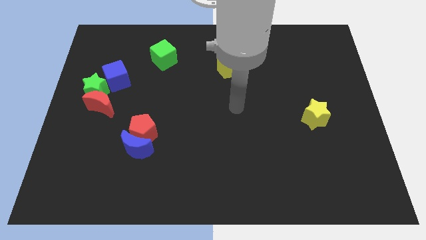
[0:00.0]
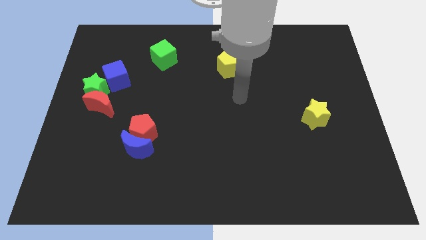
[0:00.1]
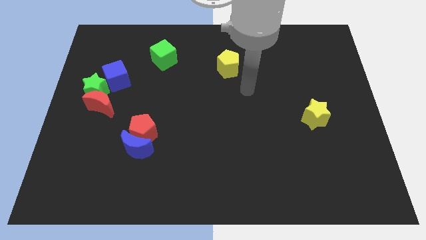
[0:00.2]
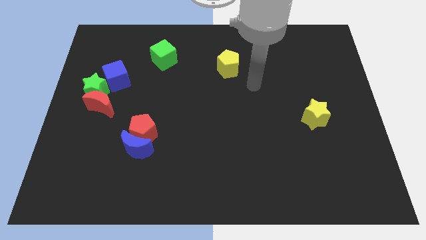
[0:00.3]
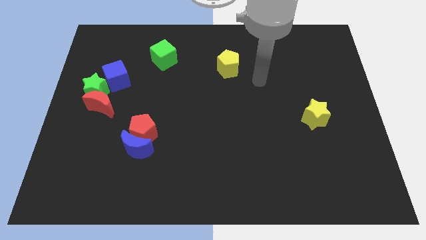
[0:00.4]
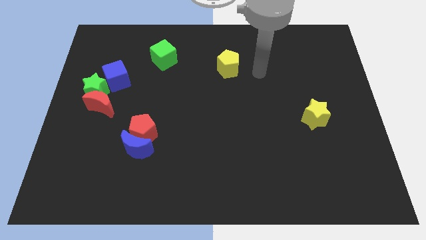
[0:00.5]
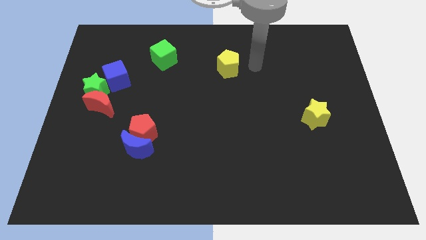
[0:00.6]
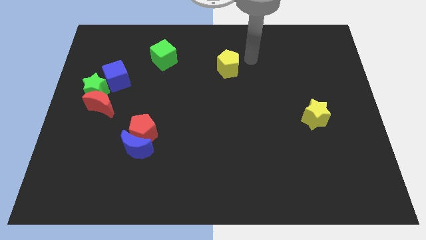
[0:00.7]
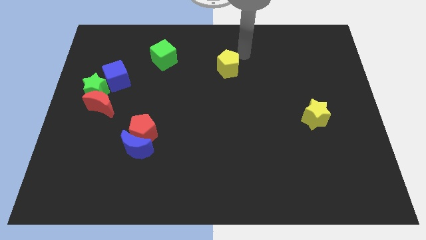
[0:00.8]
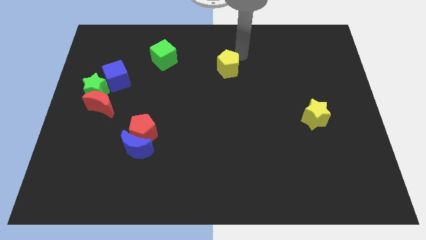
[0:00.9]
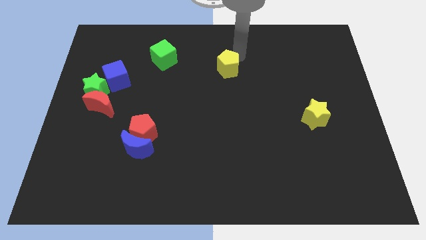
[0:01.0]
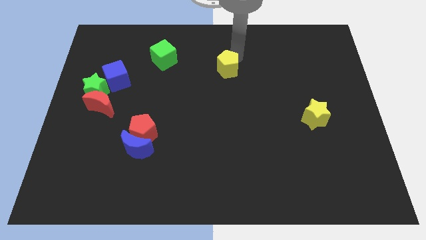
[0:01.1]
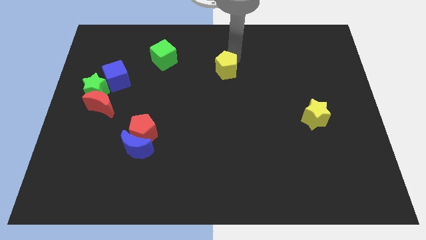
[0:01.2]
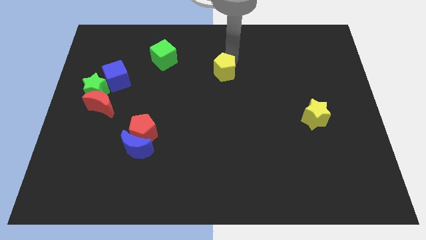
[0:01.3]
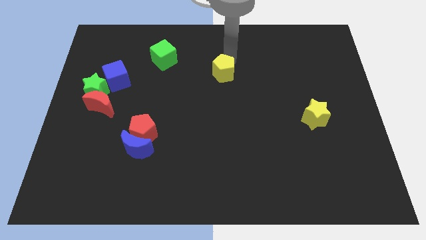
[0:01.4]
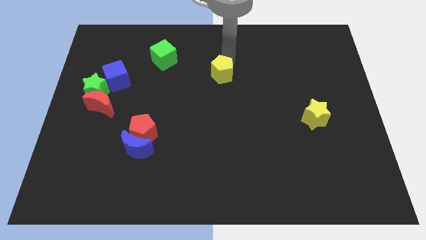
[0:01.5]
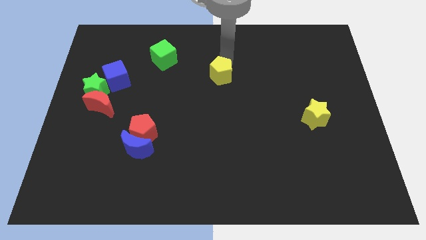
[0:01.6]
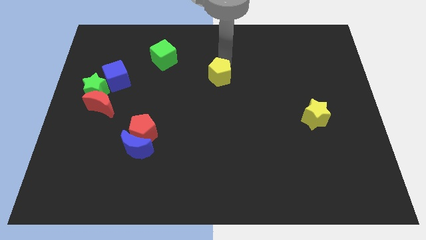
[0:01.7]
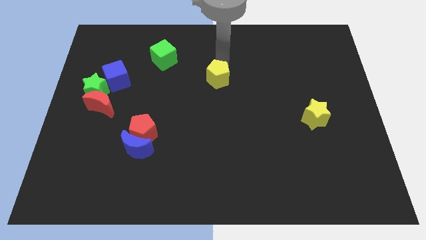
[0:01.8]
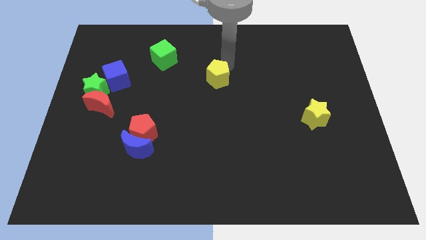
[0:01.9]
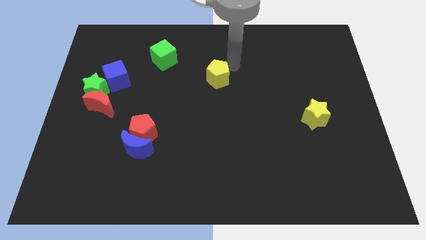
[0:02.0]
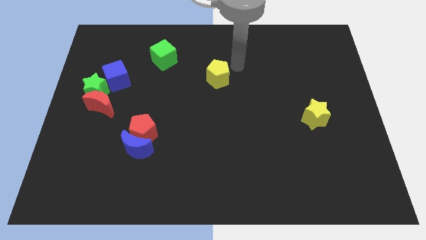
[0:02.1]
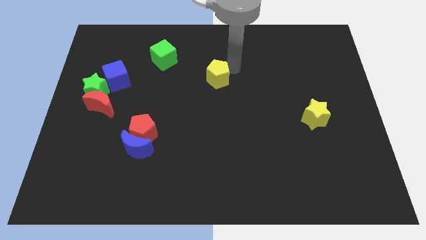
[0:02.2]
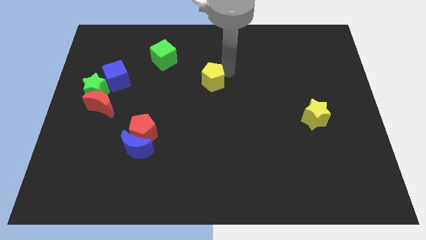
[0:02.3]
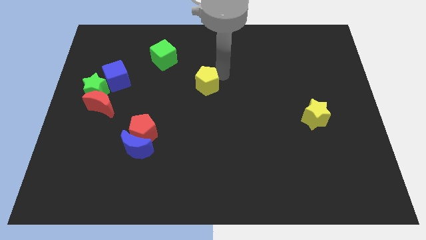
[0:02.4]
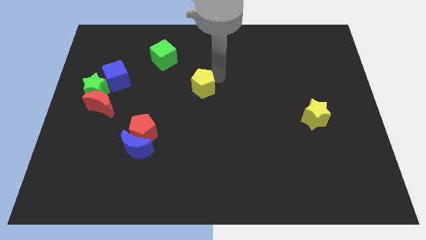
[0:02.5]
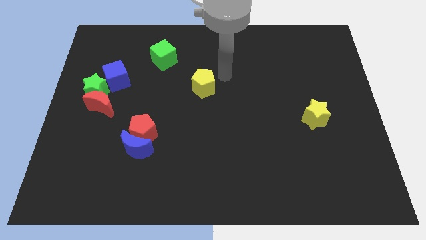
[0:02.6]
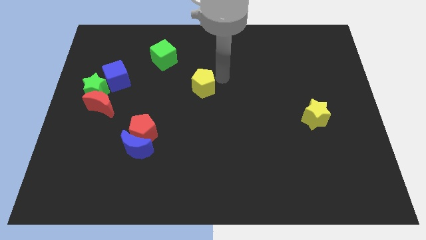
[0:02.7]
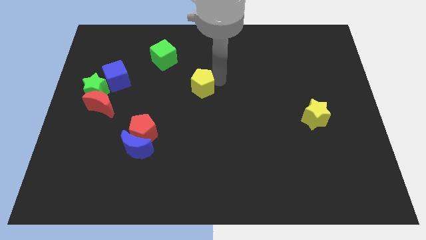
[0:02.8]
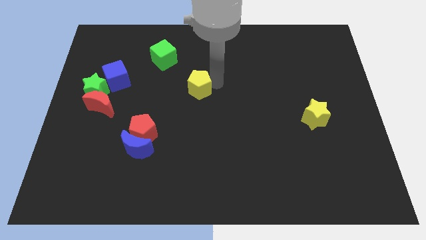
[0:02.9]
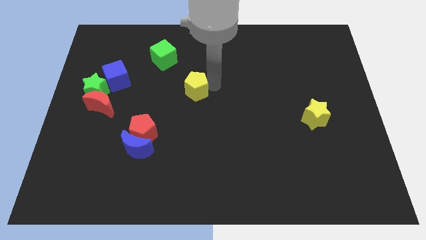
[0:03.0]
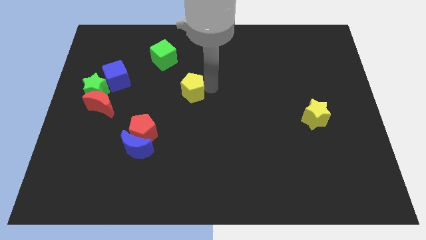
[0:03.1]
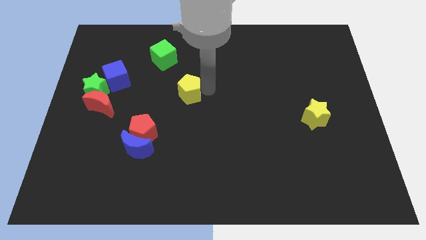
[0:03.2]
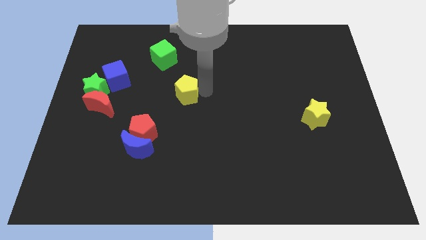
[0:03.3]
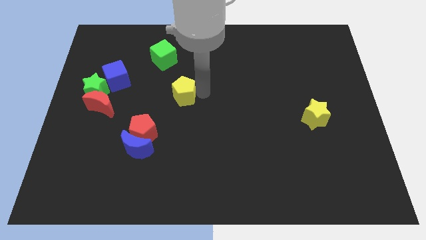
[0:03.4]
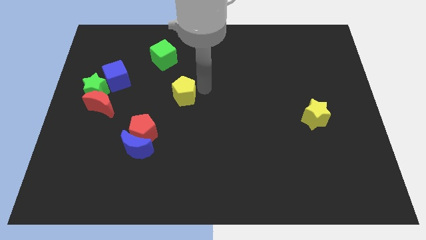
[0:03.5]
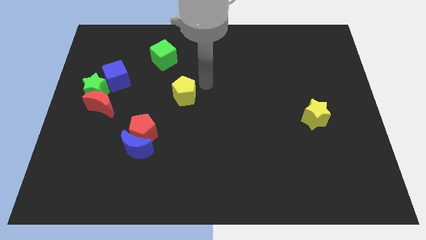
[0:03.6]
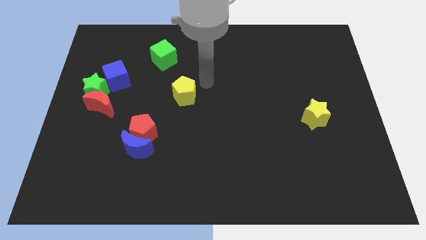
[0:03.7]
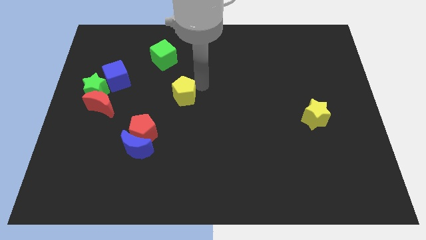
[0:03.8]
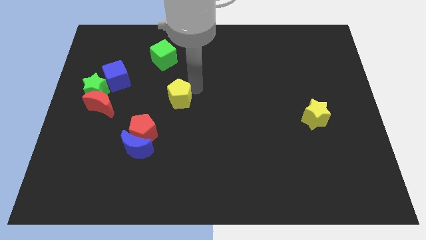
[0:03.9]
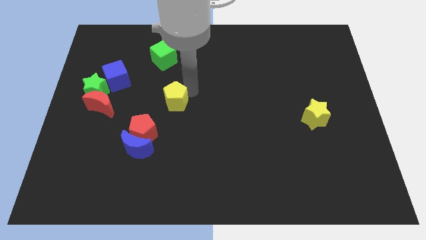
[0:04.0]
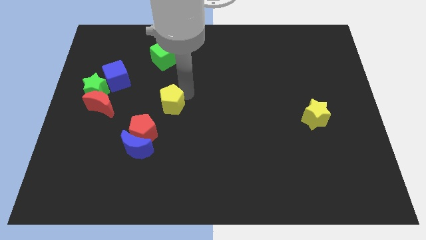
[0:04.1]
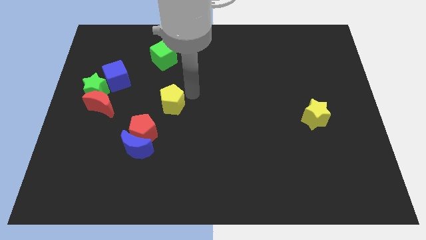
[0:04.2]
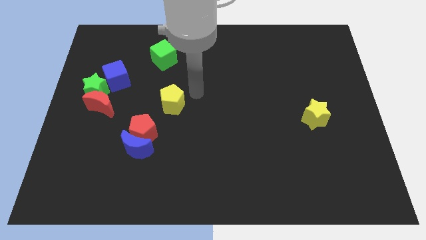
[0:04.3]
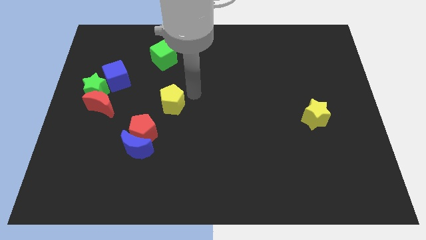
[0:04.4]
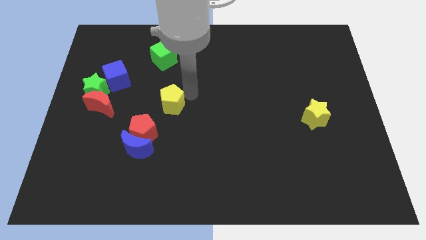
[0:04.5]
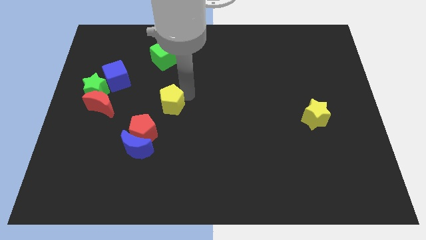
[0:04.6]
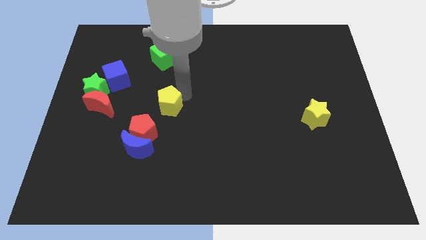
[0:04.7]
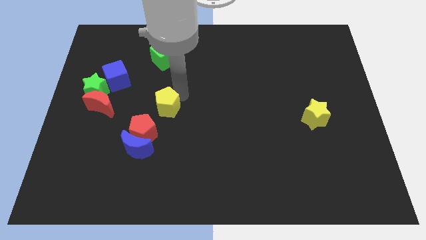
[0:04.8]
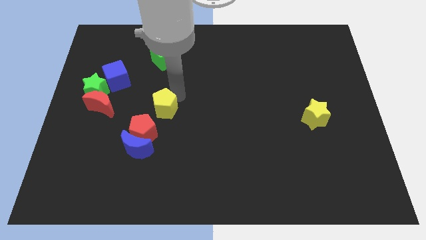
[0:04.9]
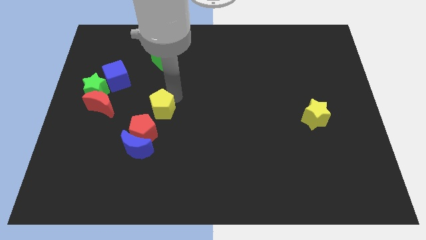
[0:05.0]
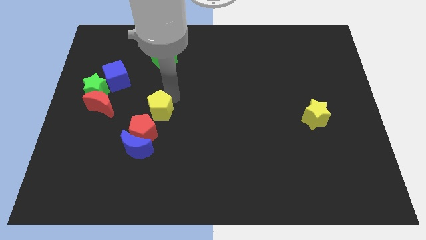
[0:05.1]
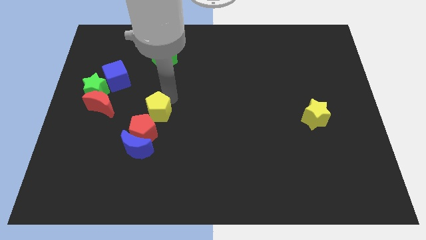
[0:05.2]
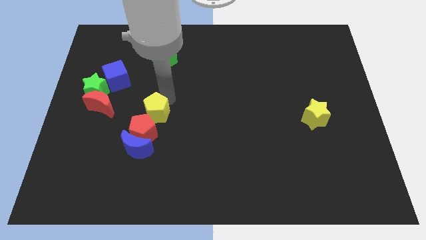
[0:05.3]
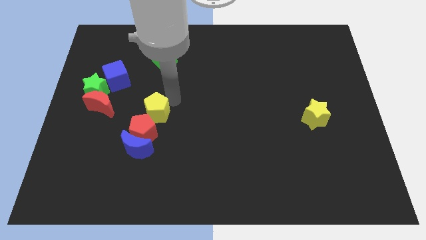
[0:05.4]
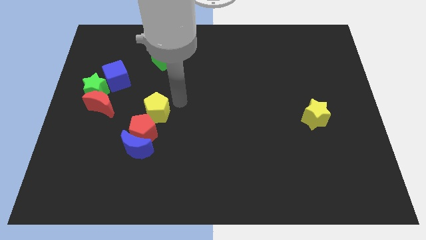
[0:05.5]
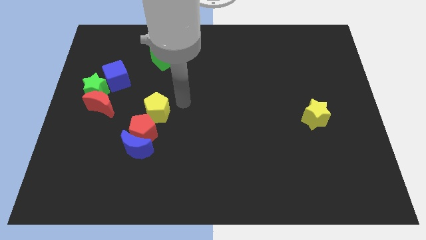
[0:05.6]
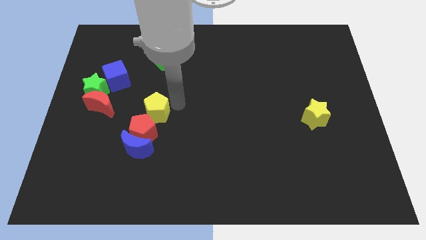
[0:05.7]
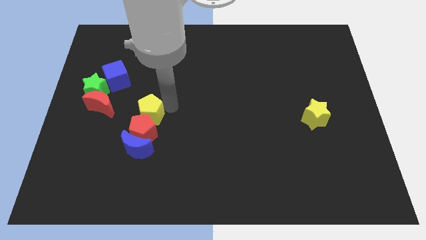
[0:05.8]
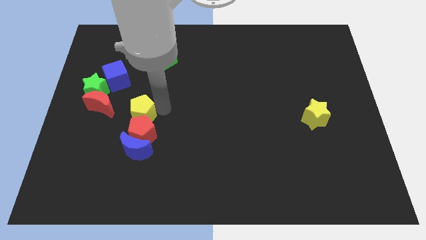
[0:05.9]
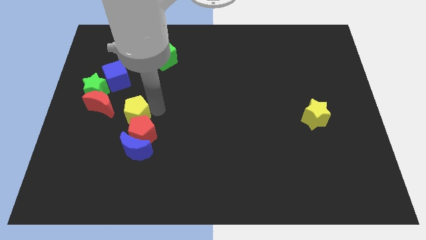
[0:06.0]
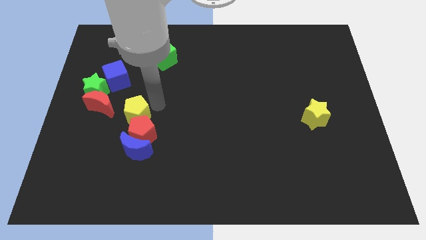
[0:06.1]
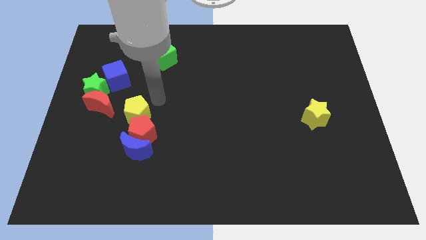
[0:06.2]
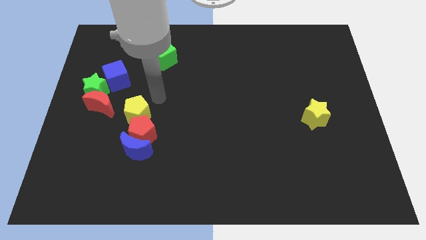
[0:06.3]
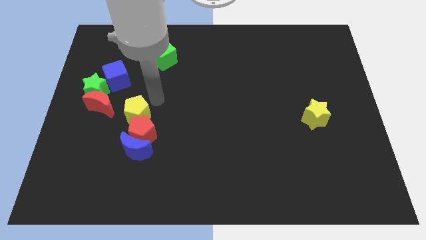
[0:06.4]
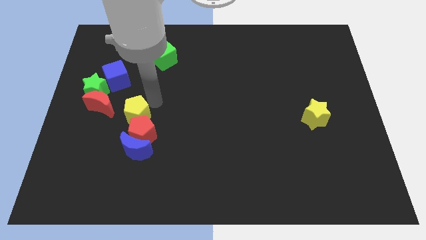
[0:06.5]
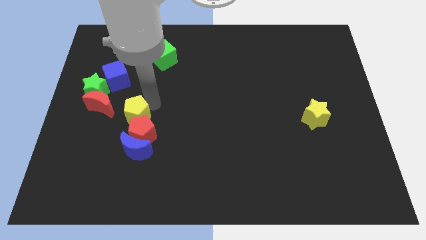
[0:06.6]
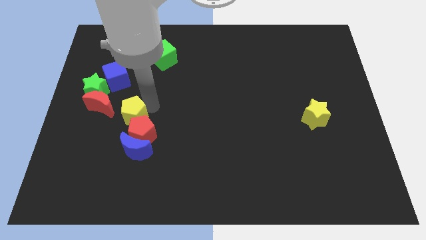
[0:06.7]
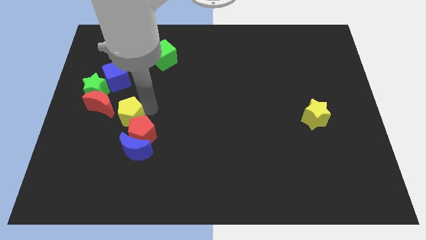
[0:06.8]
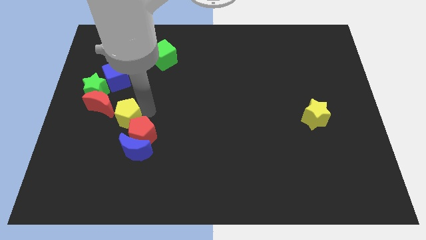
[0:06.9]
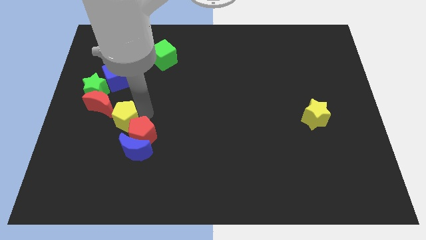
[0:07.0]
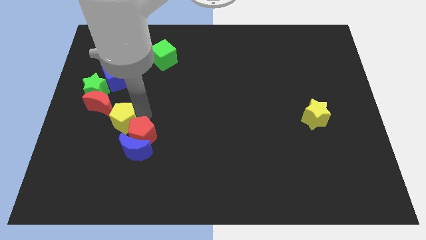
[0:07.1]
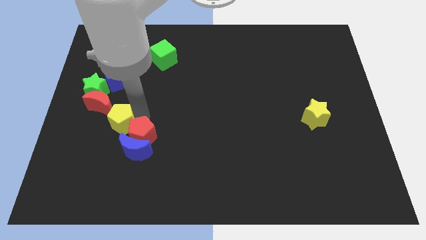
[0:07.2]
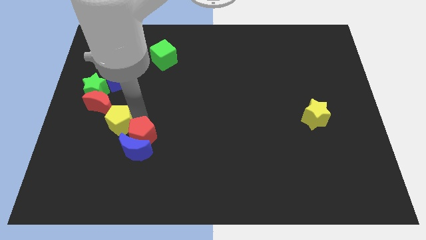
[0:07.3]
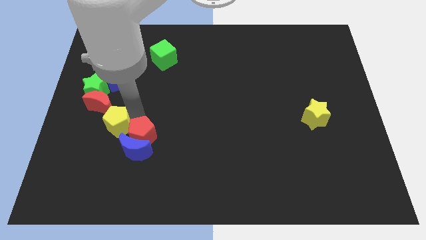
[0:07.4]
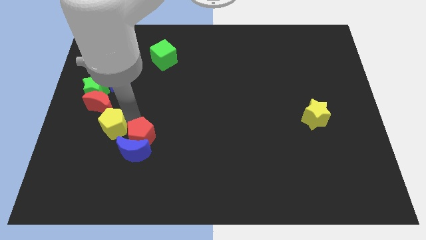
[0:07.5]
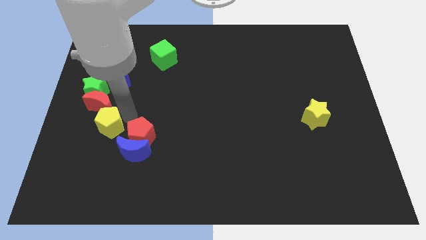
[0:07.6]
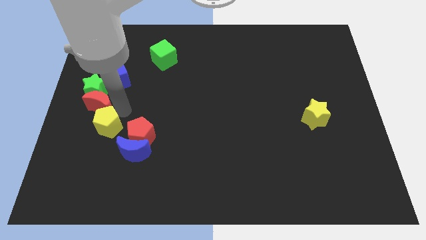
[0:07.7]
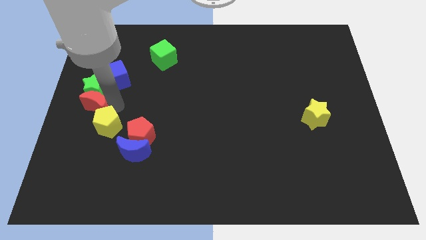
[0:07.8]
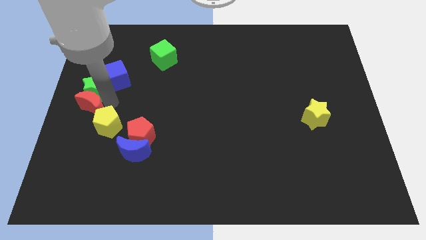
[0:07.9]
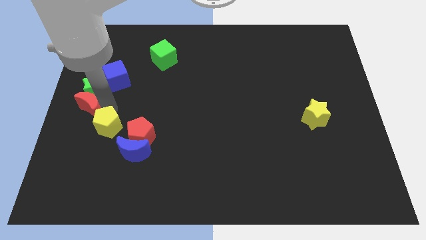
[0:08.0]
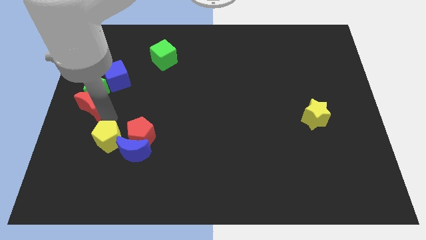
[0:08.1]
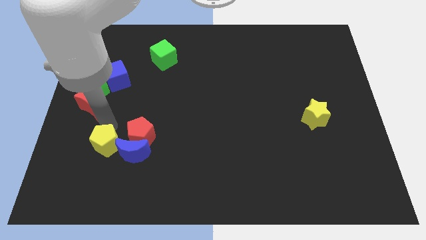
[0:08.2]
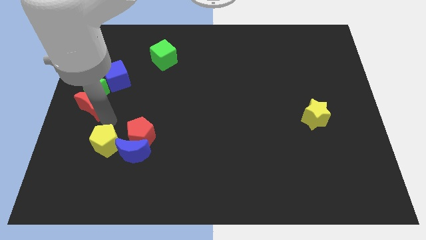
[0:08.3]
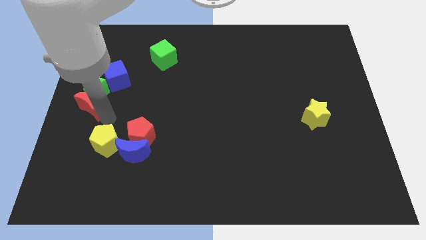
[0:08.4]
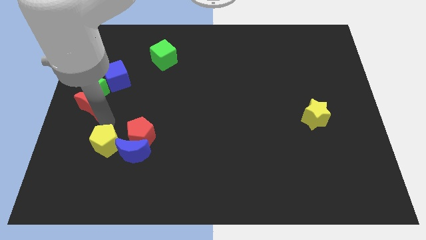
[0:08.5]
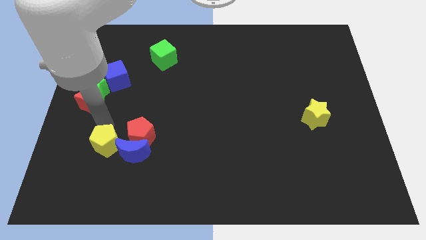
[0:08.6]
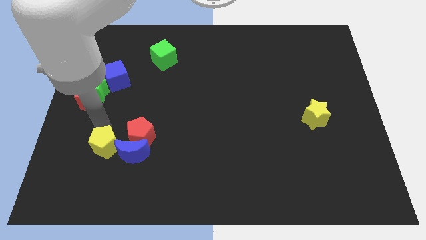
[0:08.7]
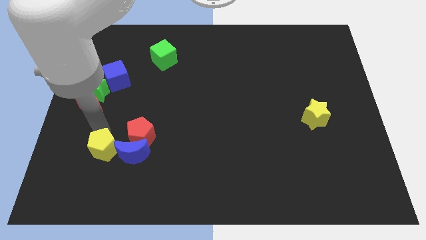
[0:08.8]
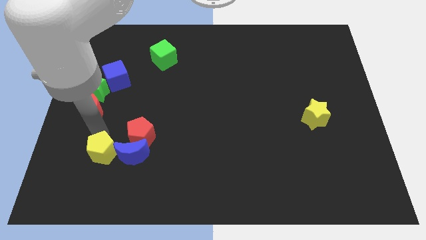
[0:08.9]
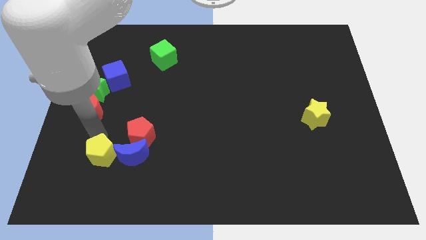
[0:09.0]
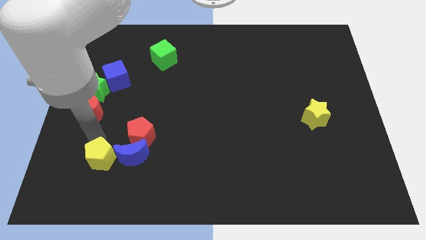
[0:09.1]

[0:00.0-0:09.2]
push the yellow pentagon to the bottom left of the blue moon
